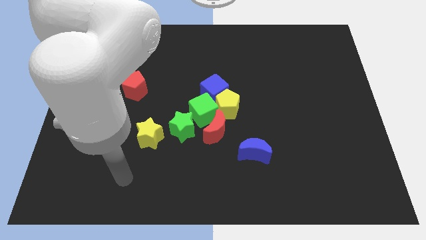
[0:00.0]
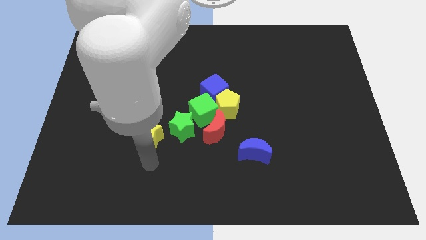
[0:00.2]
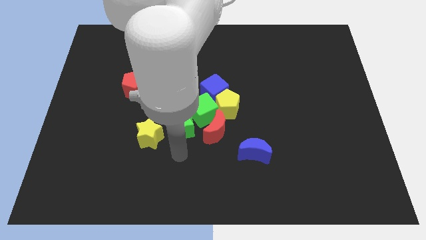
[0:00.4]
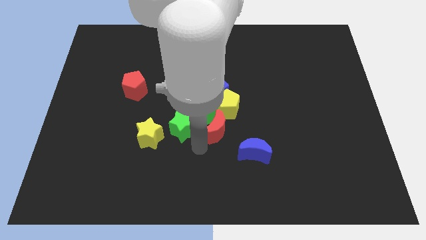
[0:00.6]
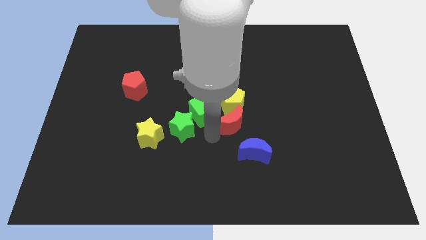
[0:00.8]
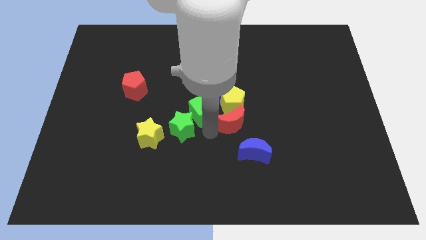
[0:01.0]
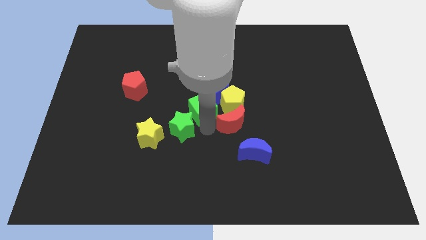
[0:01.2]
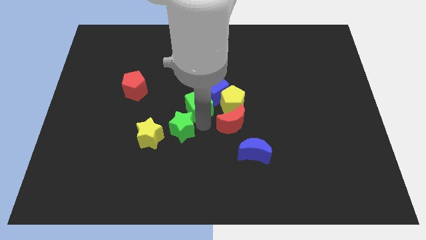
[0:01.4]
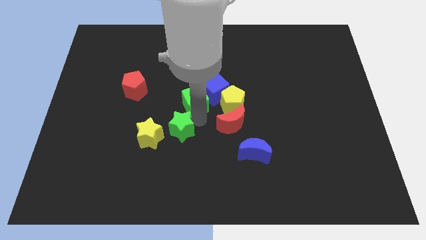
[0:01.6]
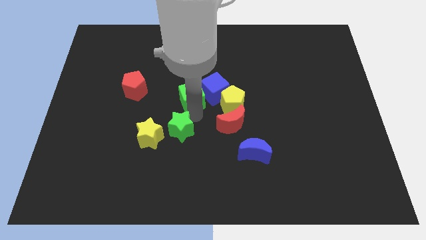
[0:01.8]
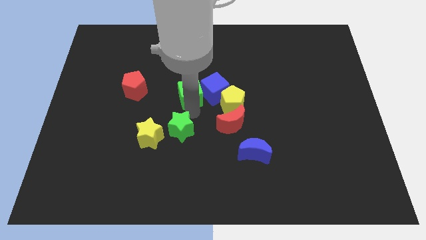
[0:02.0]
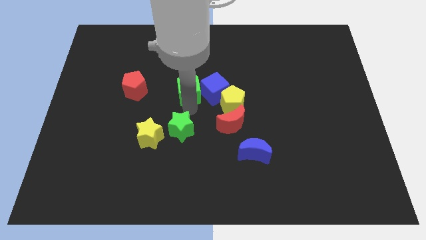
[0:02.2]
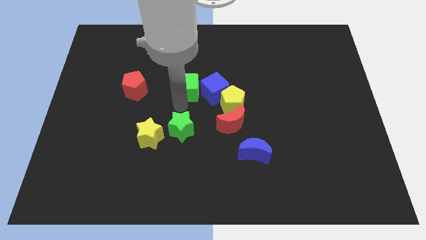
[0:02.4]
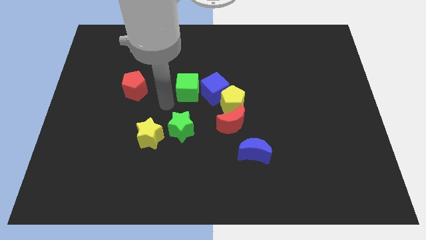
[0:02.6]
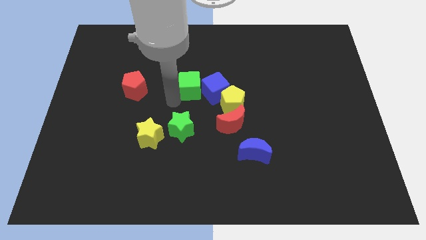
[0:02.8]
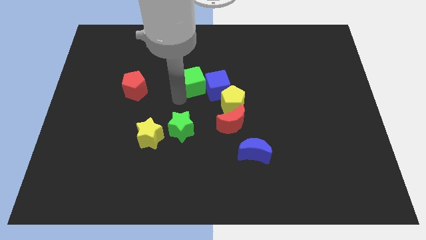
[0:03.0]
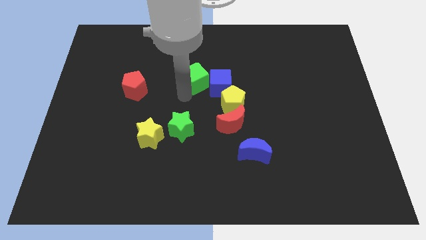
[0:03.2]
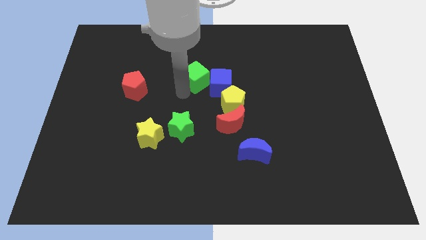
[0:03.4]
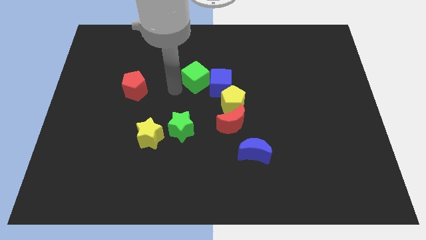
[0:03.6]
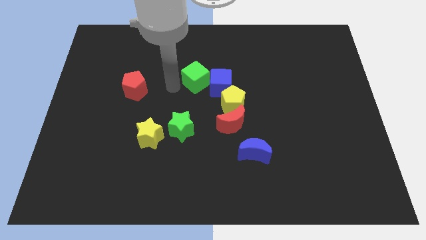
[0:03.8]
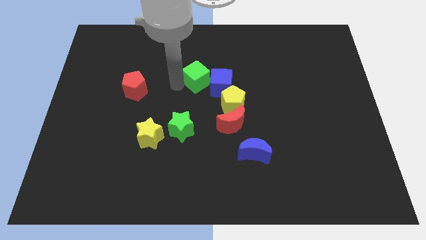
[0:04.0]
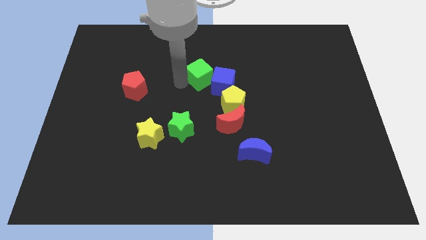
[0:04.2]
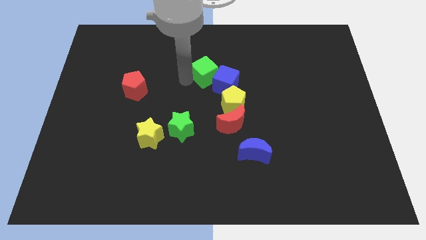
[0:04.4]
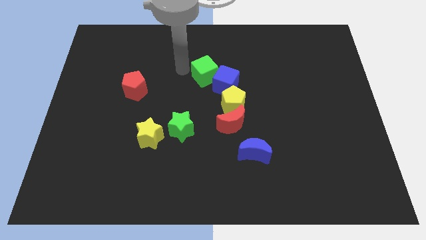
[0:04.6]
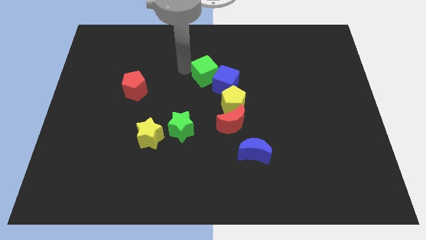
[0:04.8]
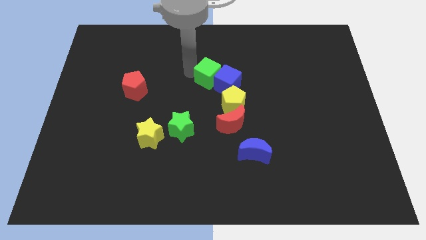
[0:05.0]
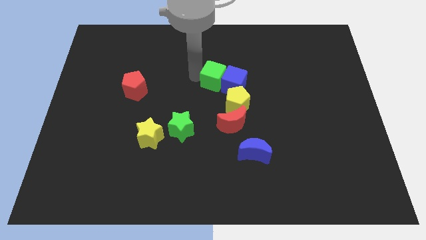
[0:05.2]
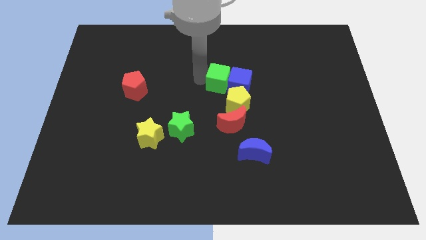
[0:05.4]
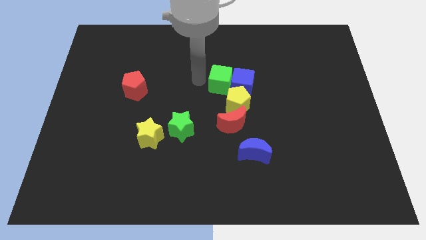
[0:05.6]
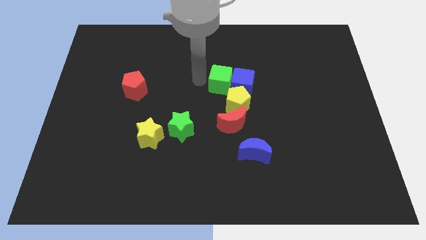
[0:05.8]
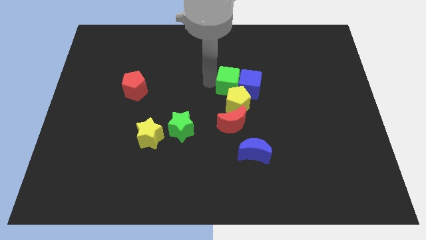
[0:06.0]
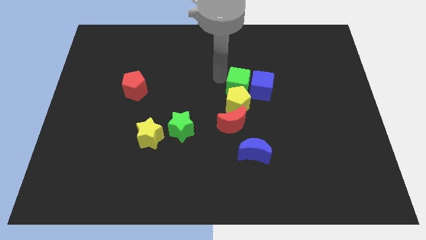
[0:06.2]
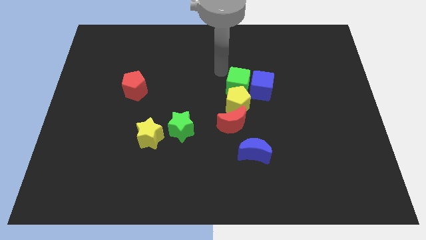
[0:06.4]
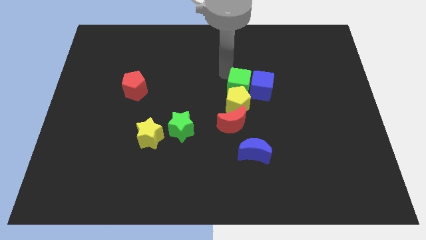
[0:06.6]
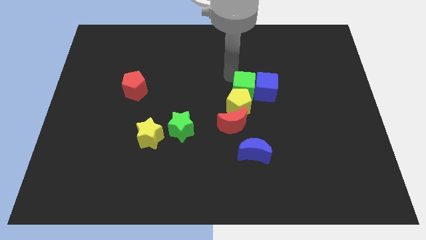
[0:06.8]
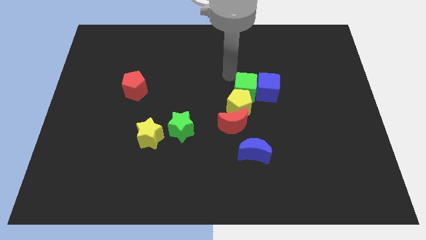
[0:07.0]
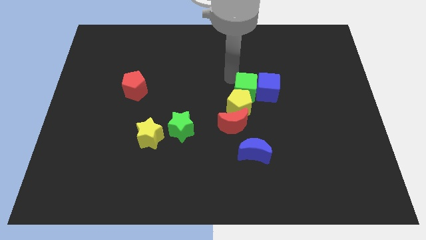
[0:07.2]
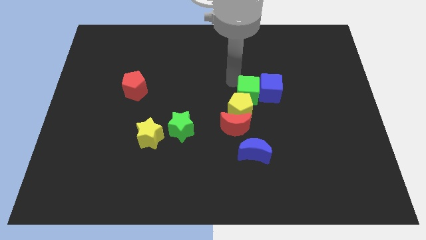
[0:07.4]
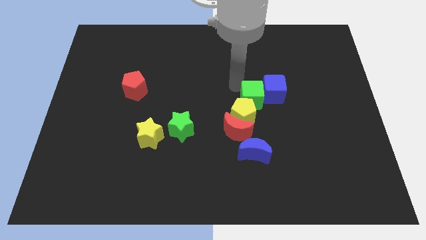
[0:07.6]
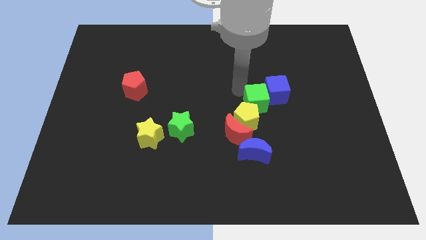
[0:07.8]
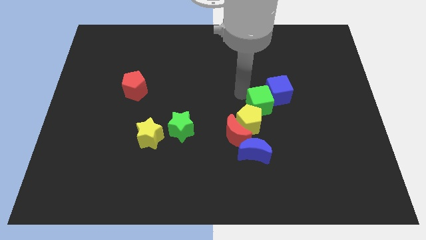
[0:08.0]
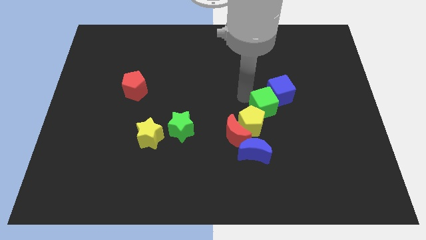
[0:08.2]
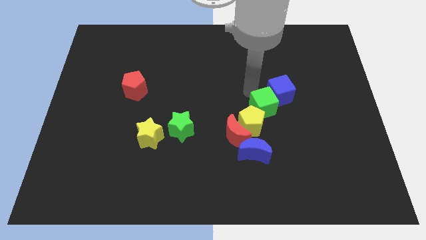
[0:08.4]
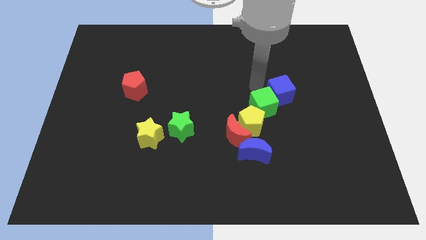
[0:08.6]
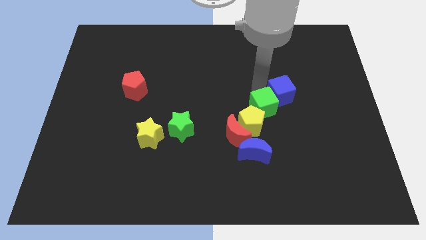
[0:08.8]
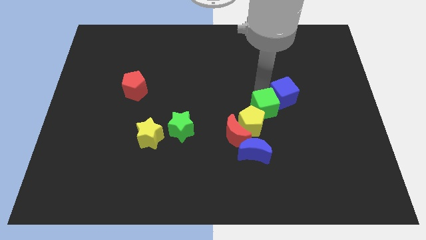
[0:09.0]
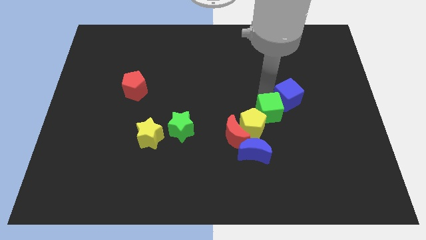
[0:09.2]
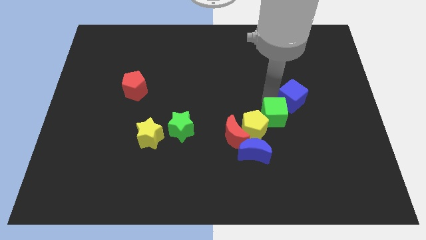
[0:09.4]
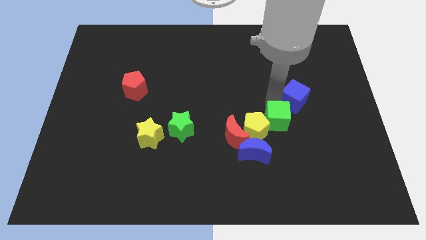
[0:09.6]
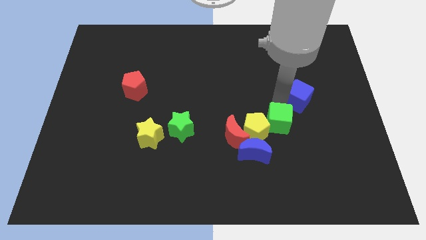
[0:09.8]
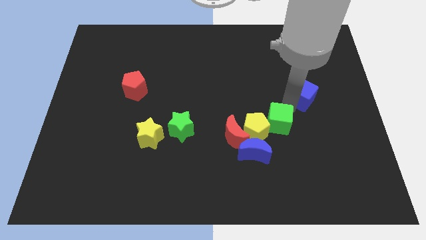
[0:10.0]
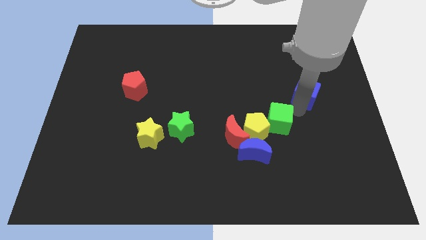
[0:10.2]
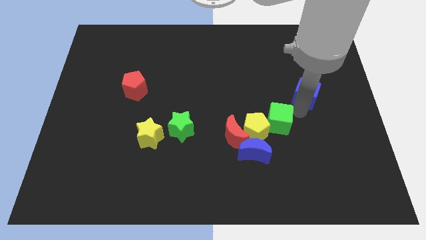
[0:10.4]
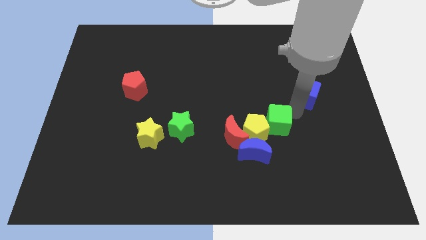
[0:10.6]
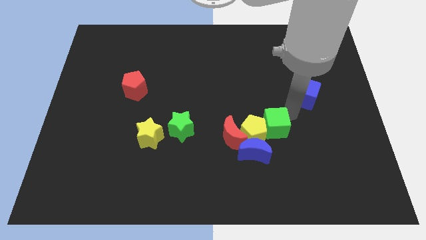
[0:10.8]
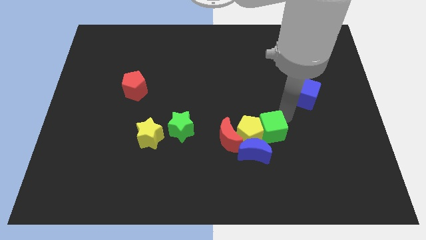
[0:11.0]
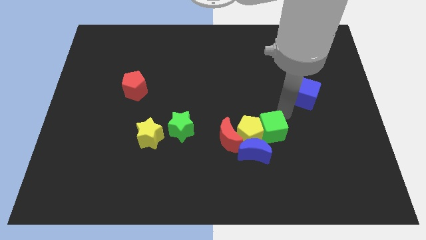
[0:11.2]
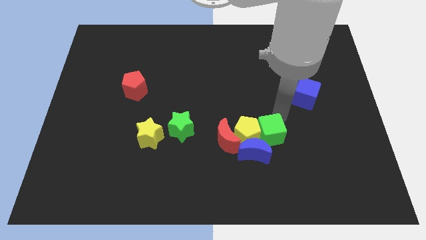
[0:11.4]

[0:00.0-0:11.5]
put the green cube to the blue moon

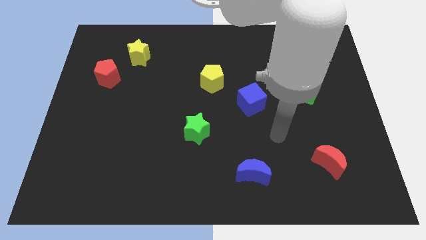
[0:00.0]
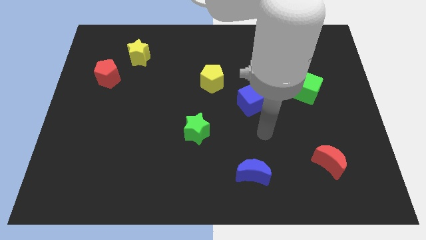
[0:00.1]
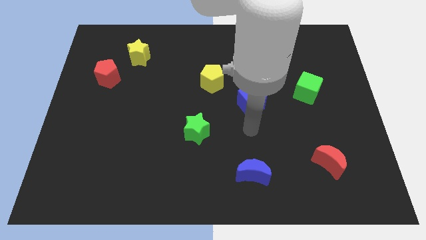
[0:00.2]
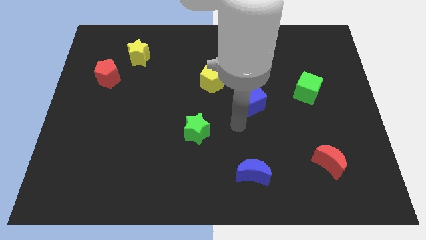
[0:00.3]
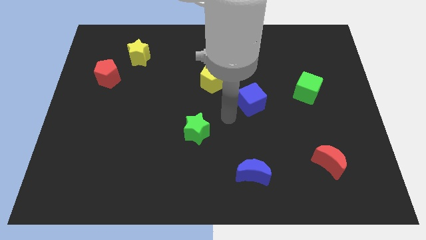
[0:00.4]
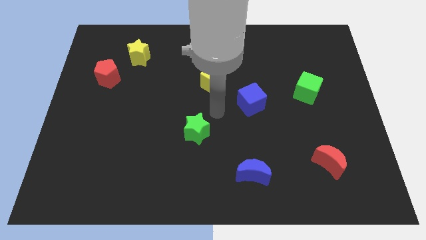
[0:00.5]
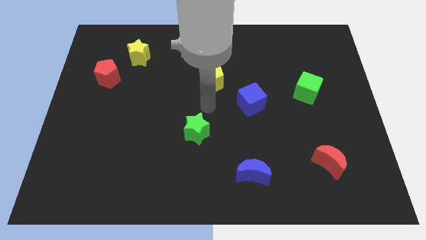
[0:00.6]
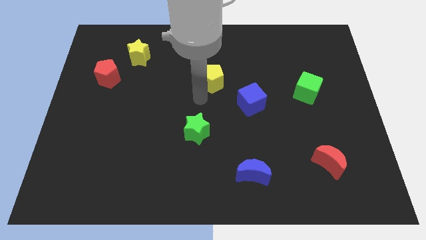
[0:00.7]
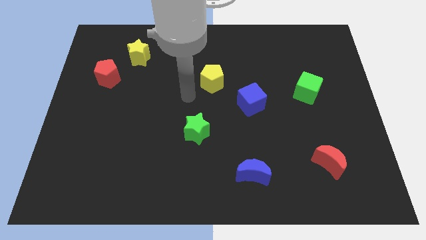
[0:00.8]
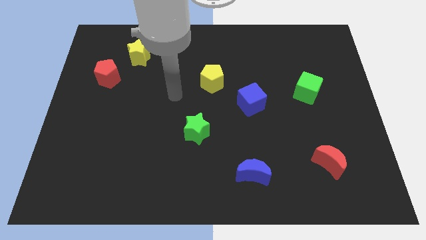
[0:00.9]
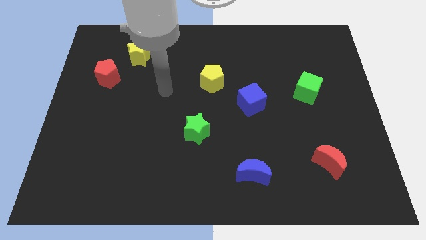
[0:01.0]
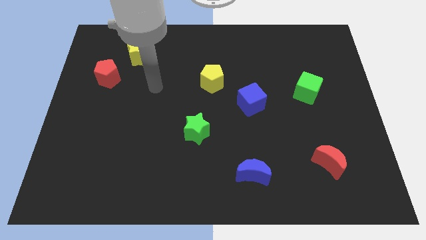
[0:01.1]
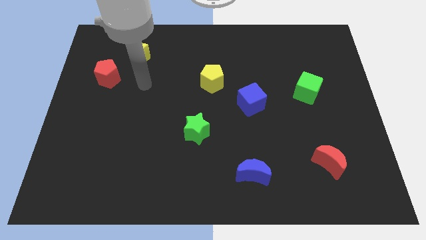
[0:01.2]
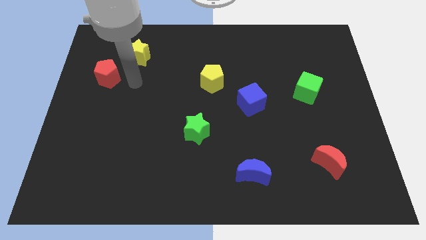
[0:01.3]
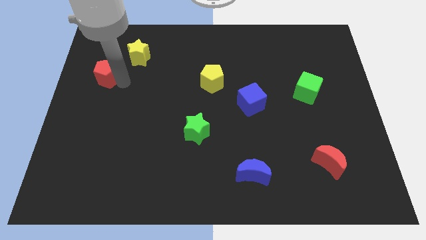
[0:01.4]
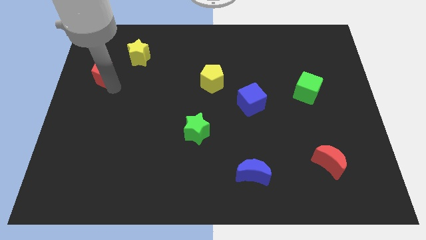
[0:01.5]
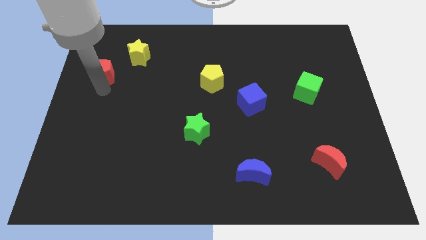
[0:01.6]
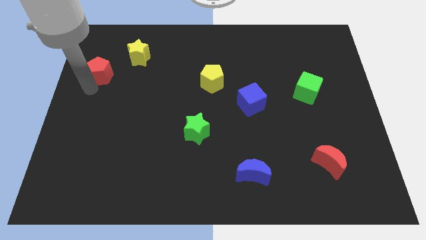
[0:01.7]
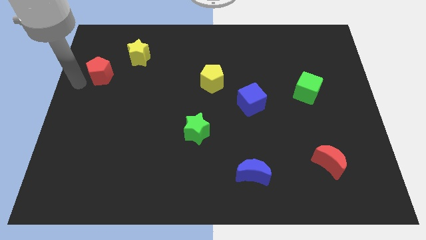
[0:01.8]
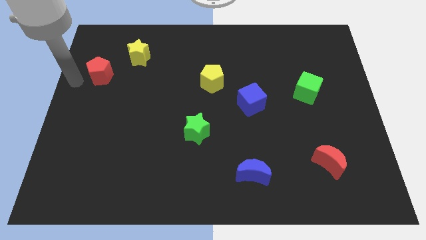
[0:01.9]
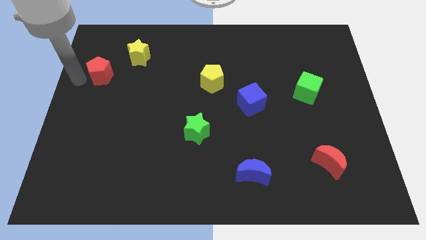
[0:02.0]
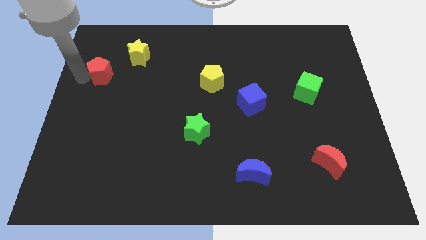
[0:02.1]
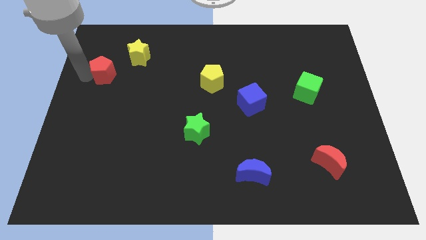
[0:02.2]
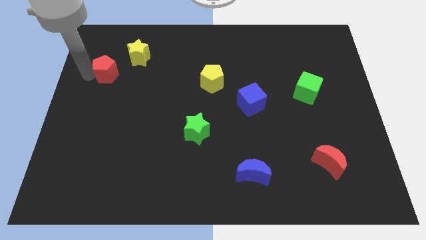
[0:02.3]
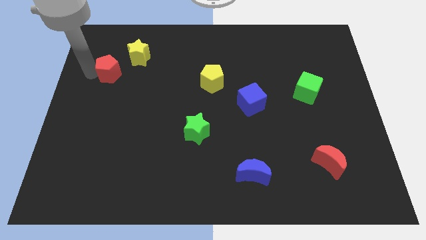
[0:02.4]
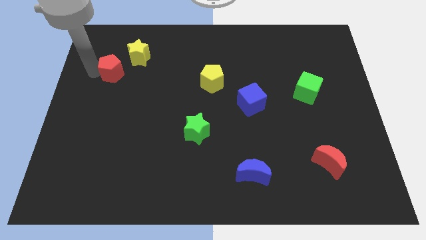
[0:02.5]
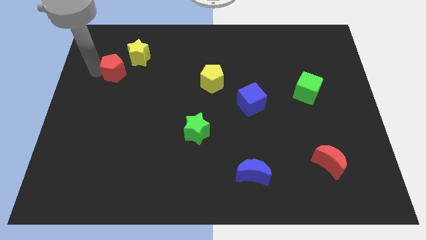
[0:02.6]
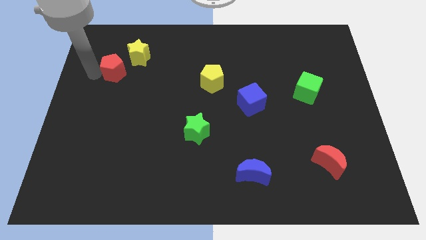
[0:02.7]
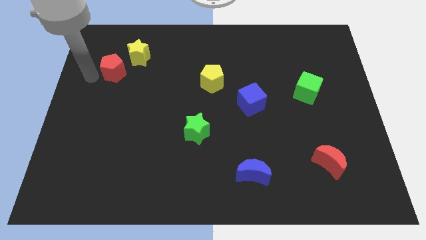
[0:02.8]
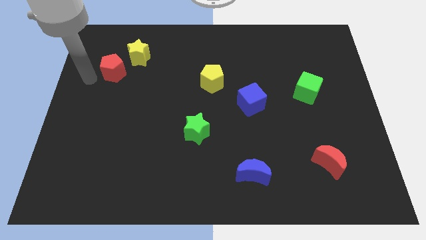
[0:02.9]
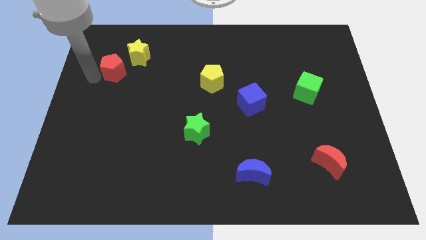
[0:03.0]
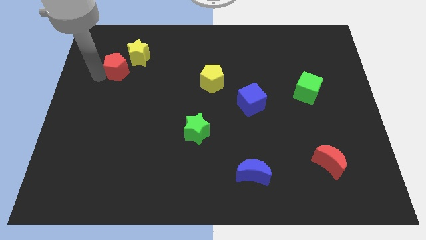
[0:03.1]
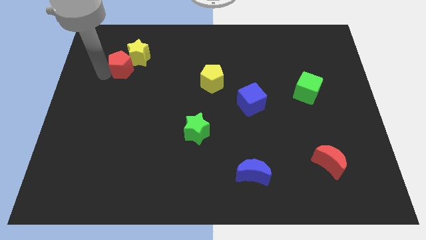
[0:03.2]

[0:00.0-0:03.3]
put the red pentagon close to the yellow star
